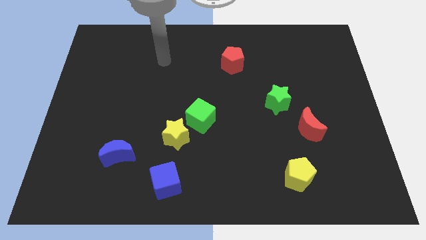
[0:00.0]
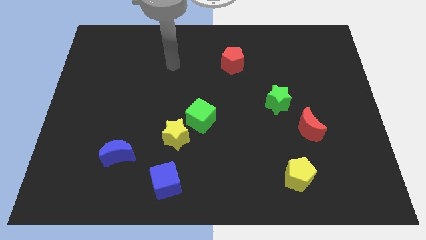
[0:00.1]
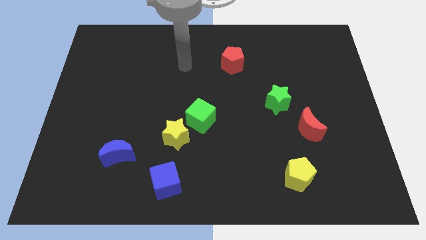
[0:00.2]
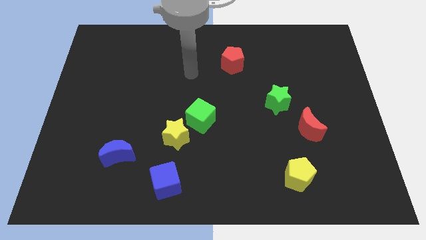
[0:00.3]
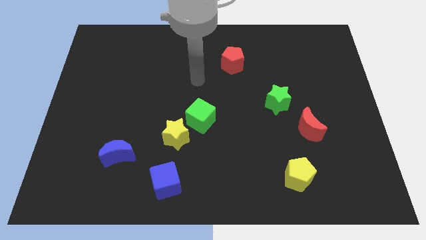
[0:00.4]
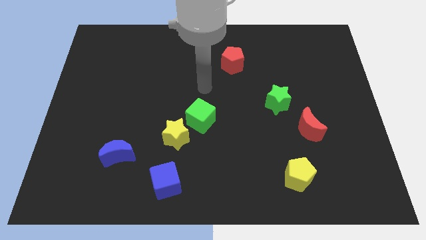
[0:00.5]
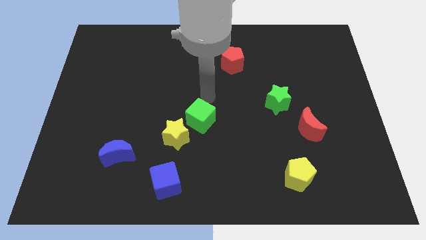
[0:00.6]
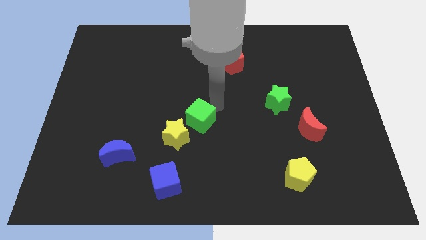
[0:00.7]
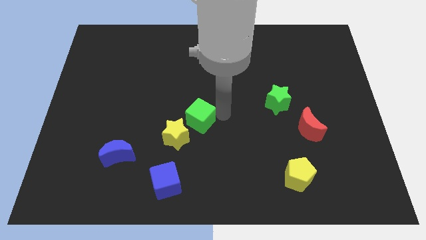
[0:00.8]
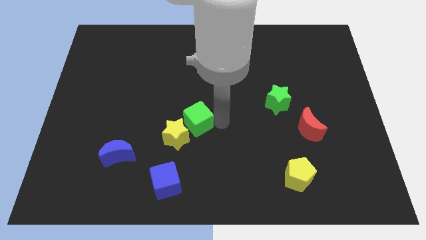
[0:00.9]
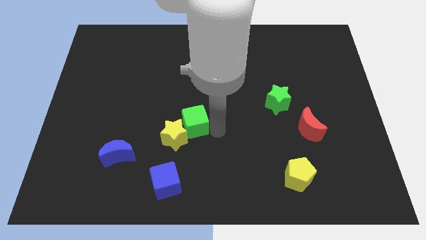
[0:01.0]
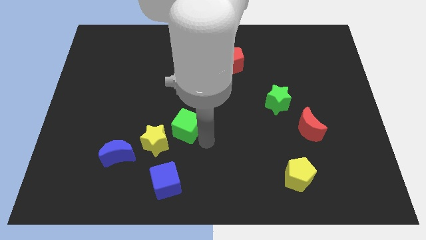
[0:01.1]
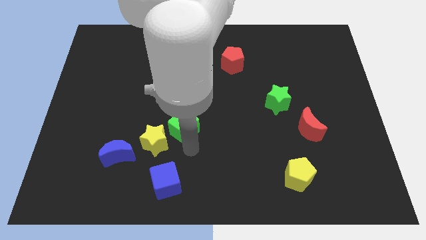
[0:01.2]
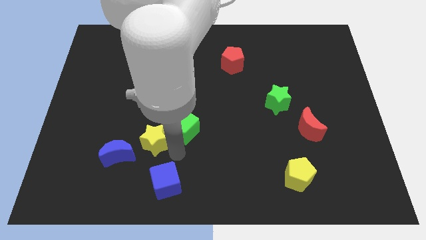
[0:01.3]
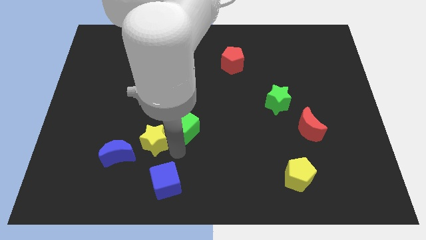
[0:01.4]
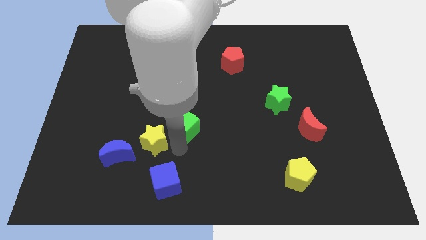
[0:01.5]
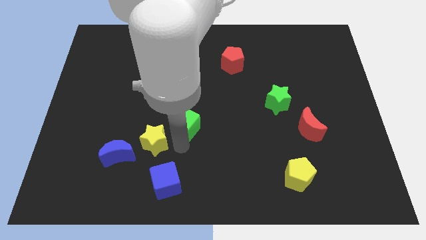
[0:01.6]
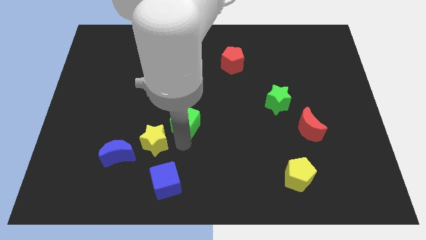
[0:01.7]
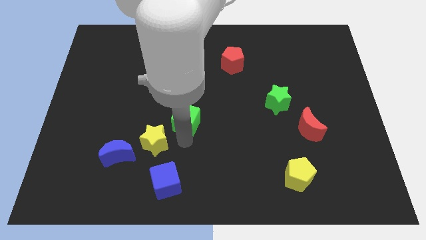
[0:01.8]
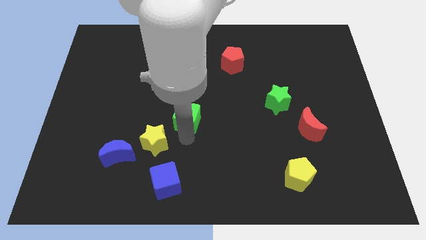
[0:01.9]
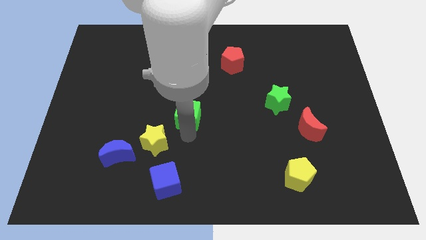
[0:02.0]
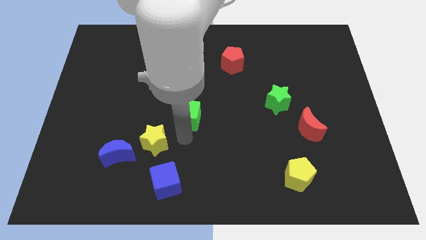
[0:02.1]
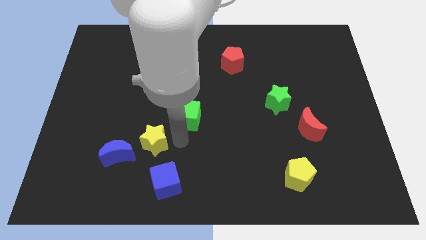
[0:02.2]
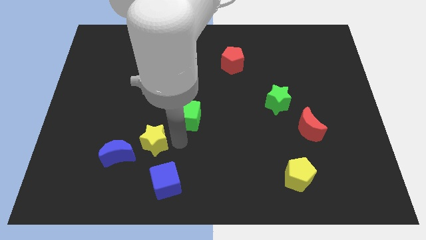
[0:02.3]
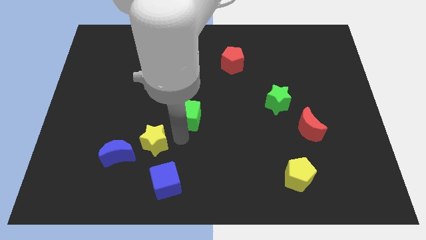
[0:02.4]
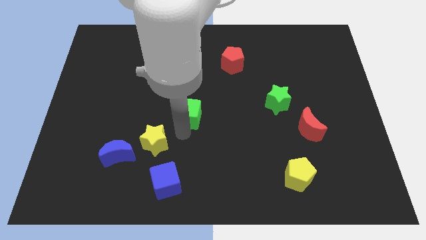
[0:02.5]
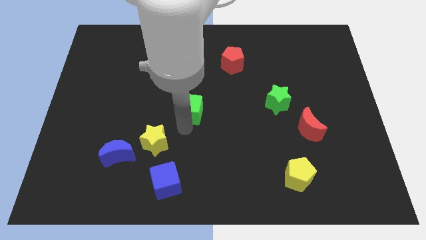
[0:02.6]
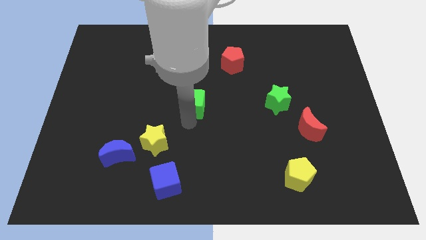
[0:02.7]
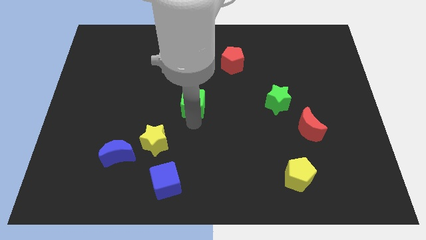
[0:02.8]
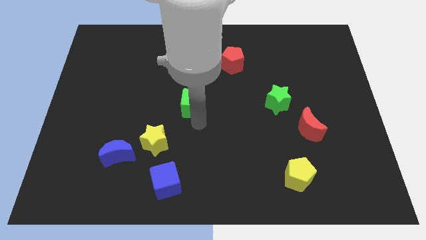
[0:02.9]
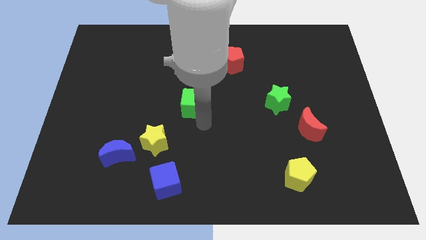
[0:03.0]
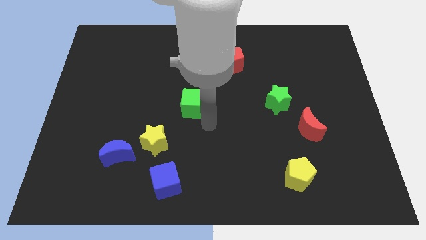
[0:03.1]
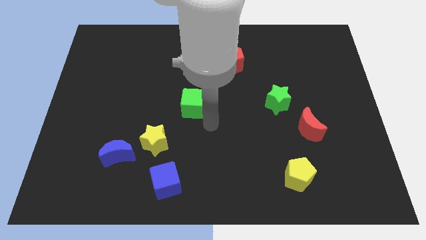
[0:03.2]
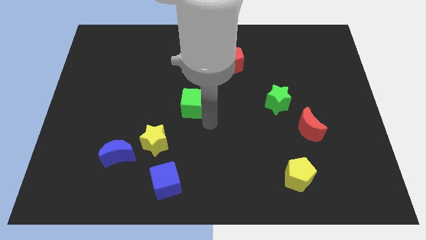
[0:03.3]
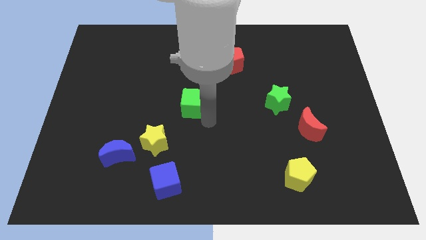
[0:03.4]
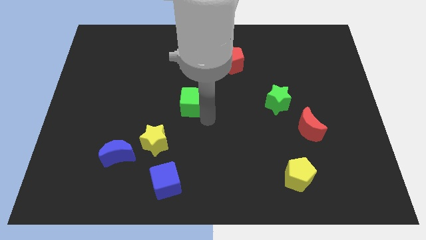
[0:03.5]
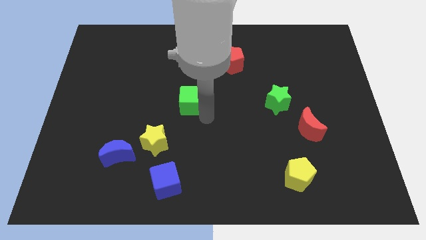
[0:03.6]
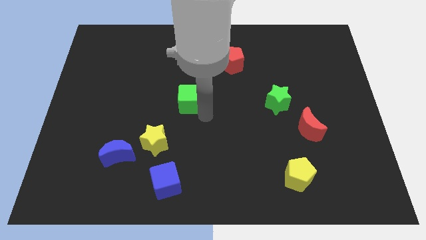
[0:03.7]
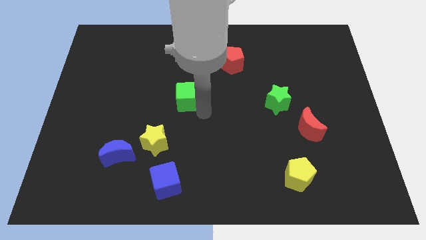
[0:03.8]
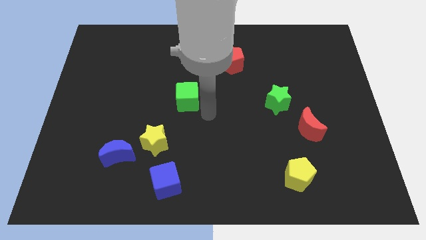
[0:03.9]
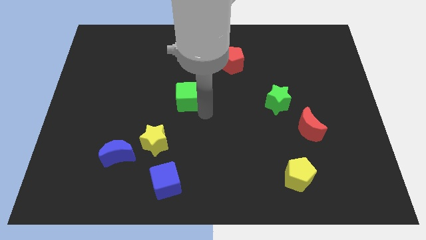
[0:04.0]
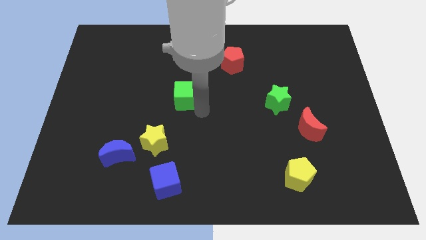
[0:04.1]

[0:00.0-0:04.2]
push the green cube up and left somewhat

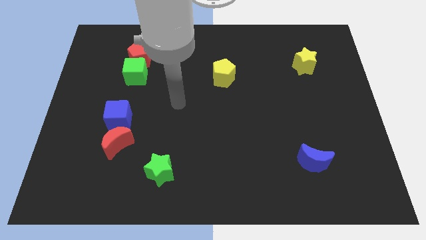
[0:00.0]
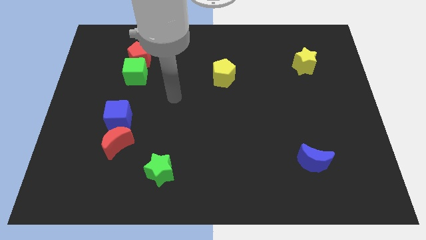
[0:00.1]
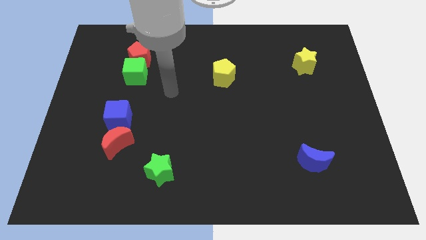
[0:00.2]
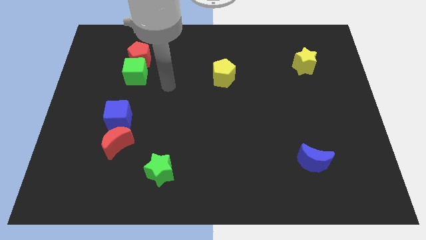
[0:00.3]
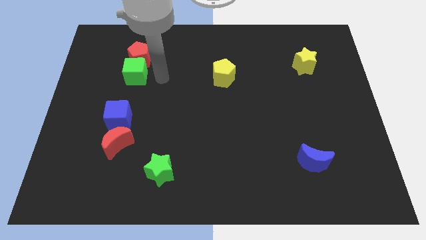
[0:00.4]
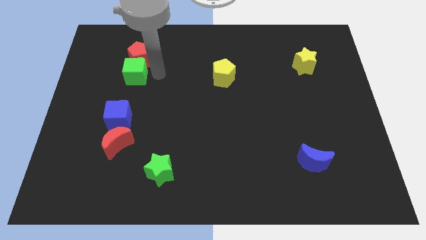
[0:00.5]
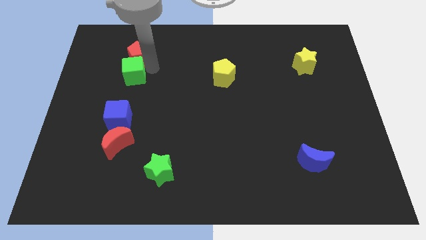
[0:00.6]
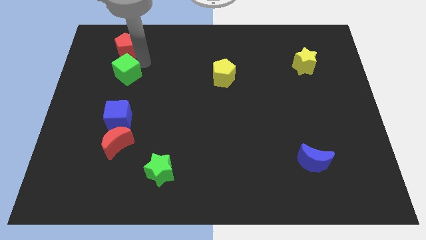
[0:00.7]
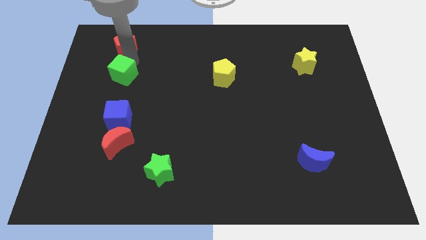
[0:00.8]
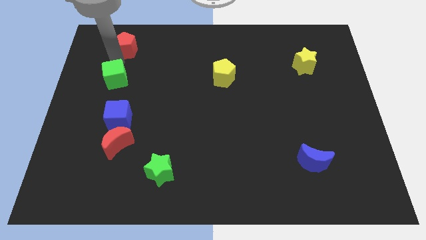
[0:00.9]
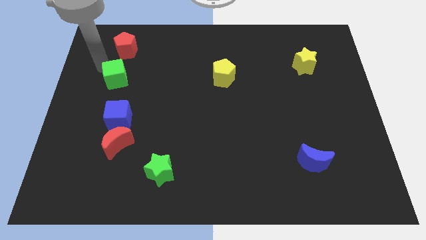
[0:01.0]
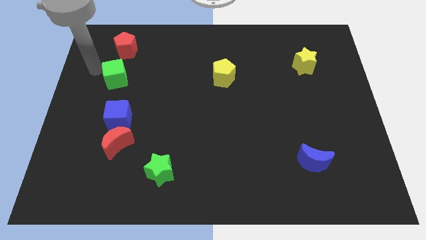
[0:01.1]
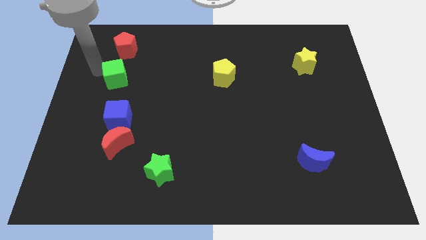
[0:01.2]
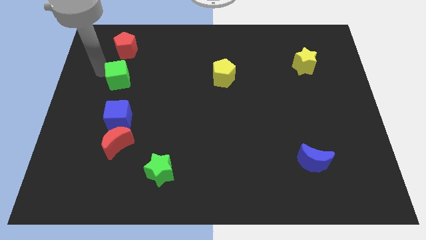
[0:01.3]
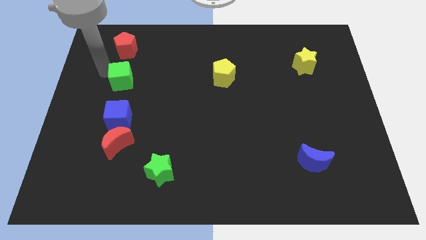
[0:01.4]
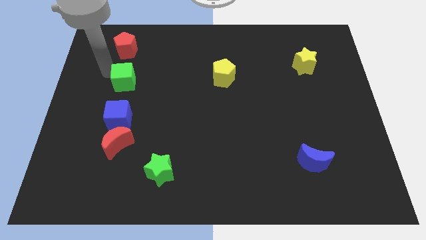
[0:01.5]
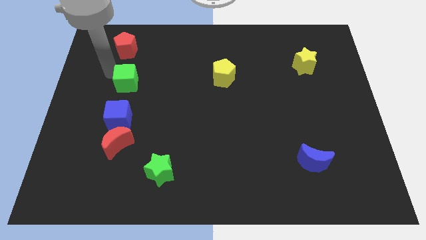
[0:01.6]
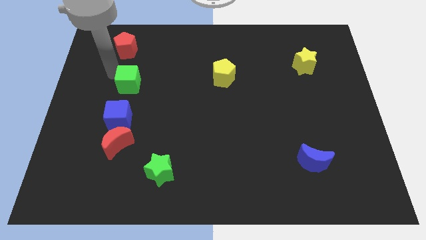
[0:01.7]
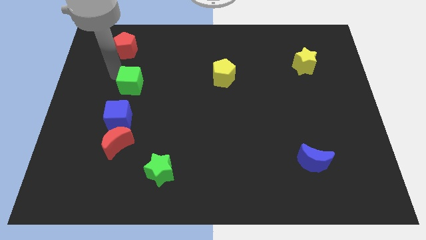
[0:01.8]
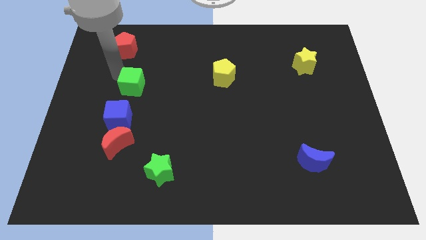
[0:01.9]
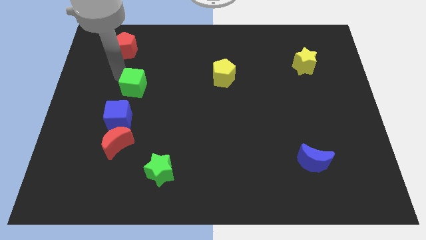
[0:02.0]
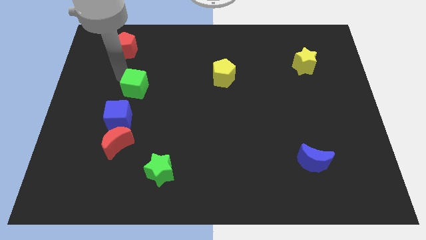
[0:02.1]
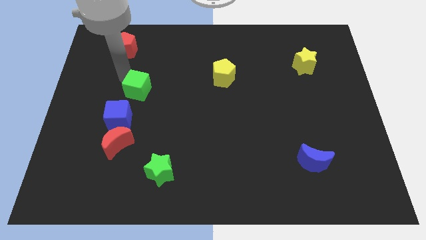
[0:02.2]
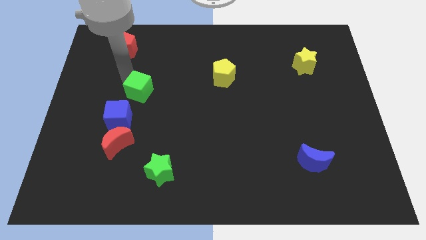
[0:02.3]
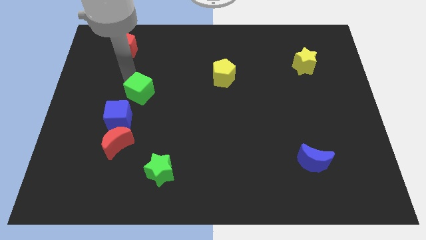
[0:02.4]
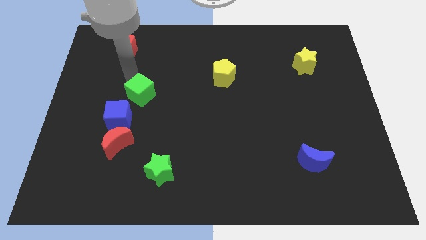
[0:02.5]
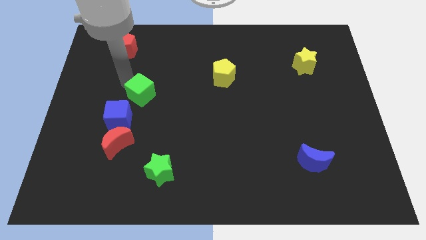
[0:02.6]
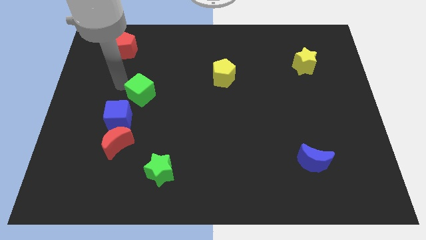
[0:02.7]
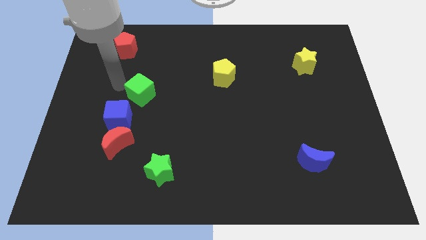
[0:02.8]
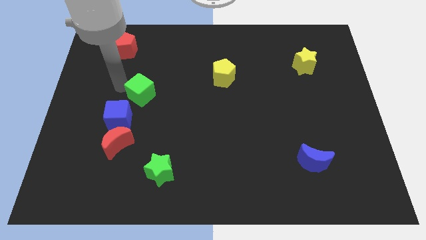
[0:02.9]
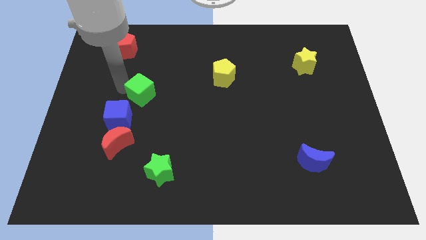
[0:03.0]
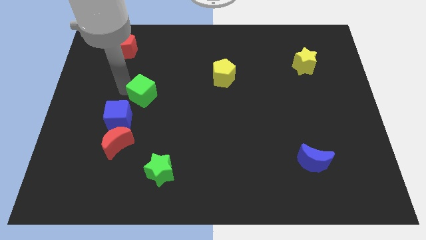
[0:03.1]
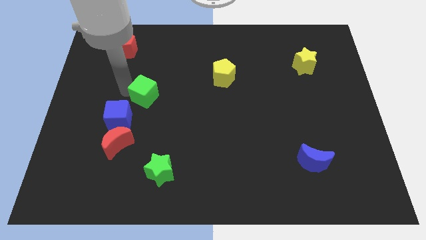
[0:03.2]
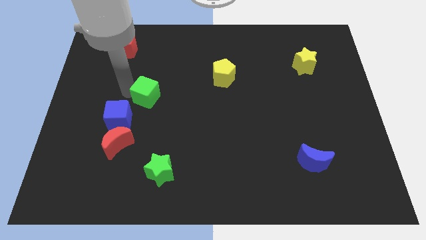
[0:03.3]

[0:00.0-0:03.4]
slightly push the green cube down and to the right diagonally

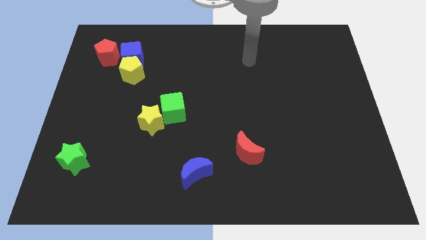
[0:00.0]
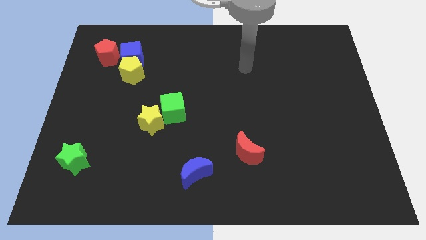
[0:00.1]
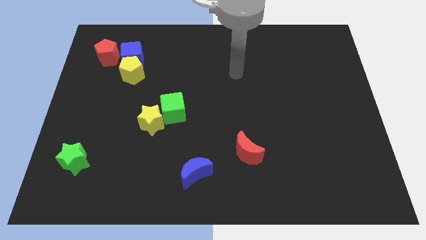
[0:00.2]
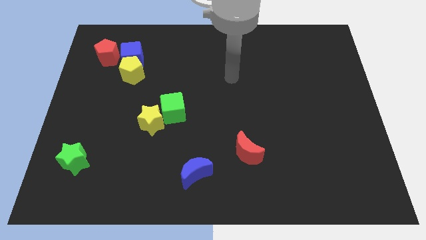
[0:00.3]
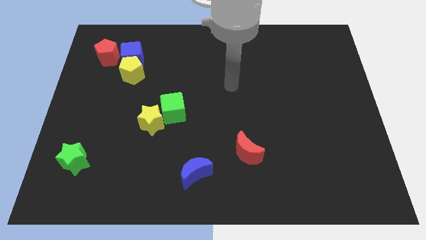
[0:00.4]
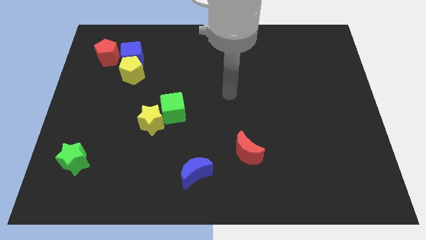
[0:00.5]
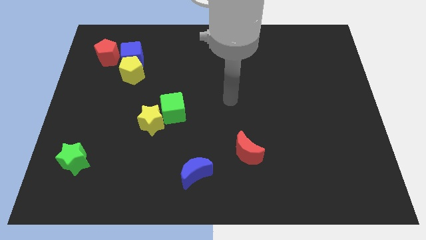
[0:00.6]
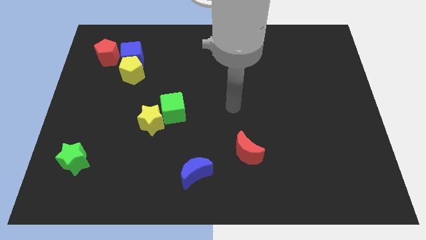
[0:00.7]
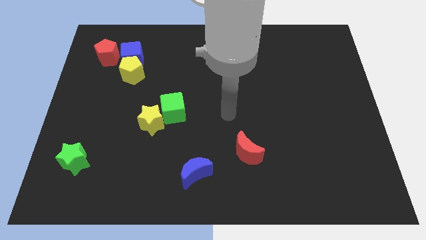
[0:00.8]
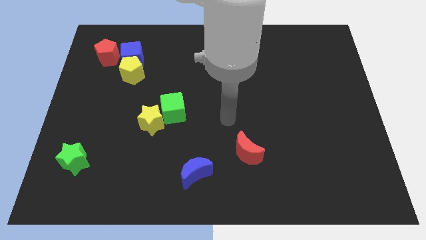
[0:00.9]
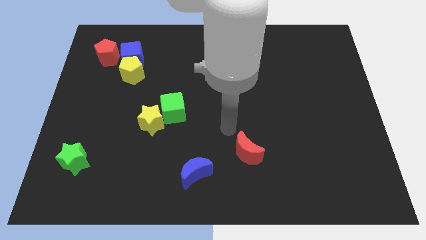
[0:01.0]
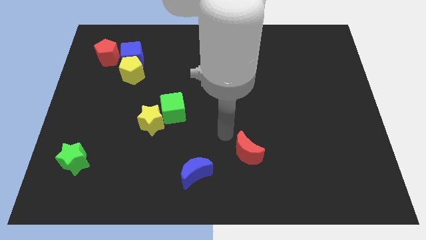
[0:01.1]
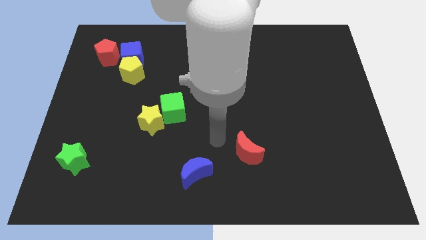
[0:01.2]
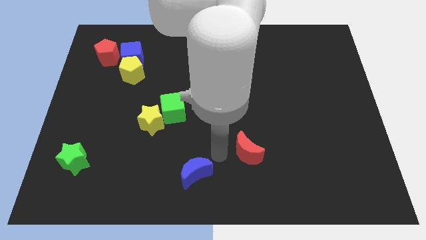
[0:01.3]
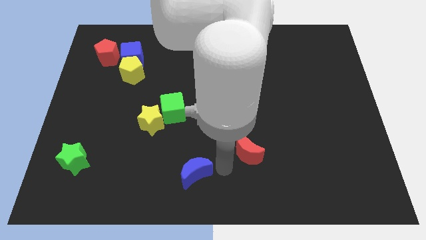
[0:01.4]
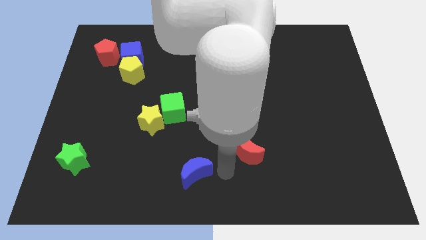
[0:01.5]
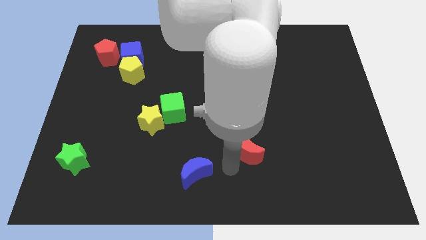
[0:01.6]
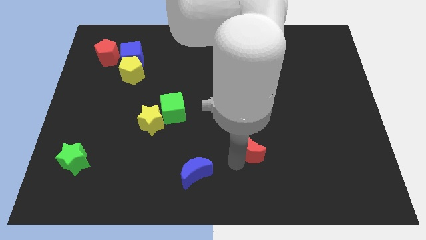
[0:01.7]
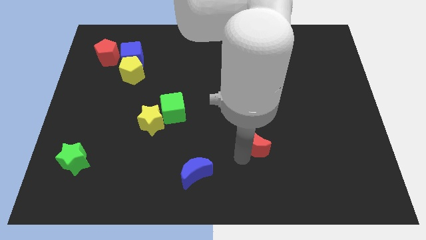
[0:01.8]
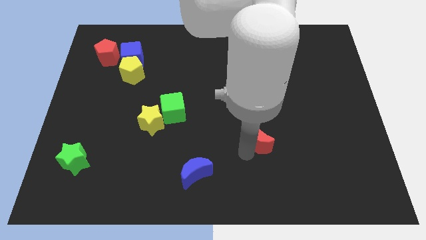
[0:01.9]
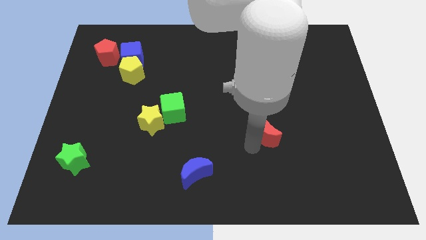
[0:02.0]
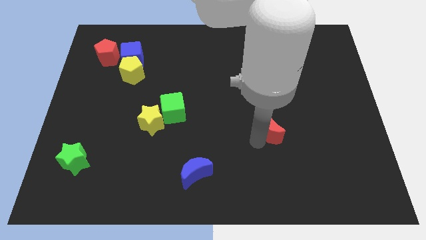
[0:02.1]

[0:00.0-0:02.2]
slide the red moon diagonally upwards and right somewhat
